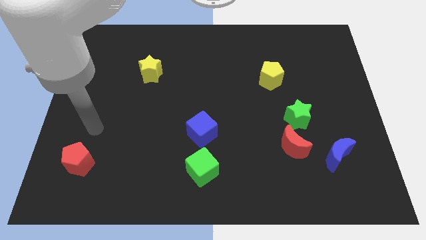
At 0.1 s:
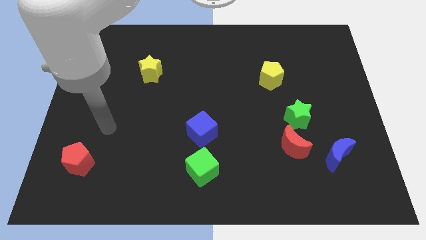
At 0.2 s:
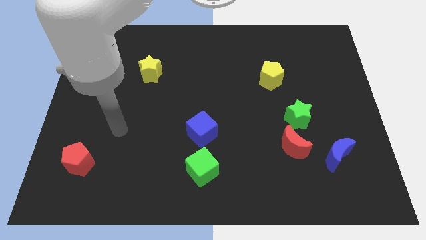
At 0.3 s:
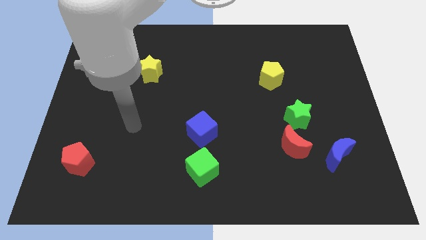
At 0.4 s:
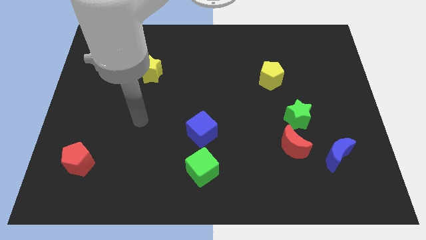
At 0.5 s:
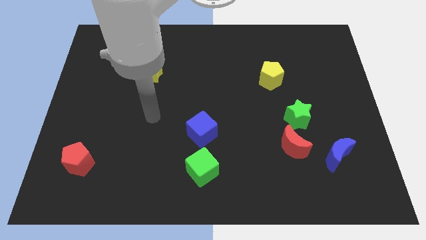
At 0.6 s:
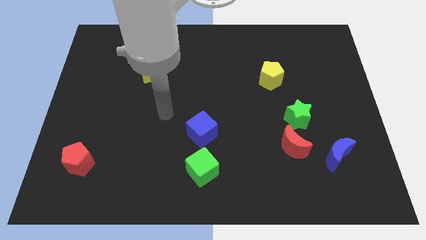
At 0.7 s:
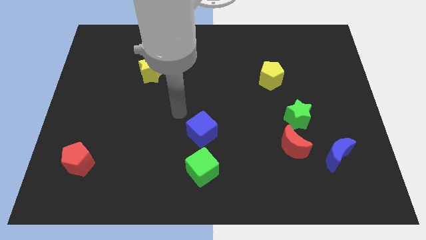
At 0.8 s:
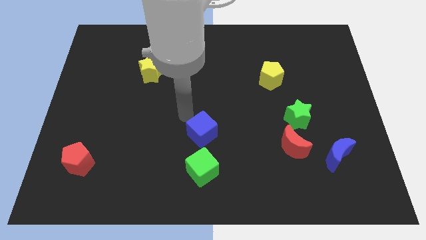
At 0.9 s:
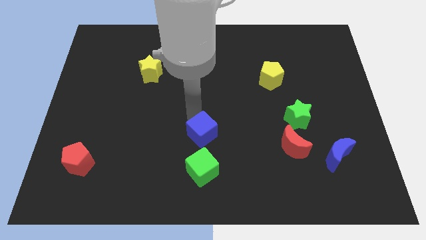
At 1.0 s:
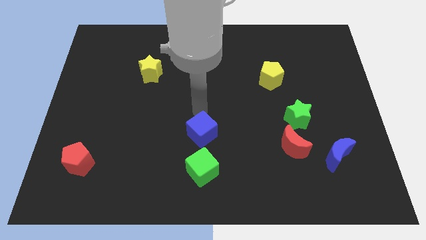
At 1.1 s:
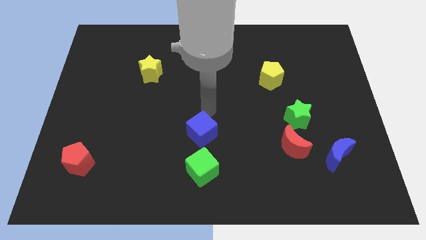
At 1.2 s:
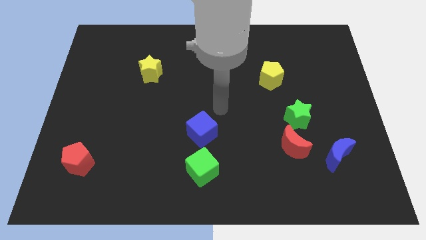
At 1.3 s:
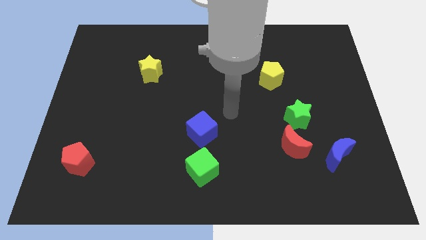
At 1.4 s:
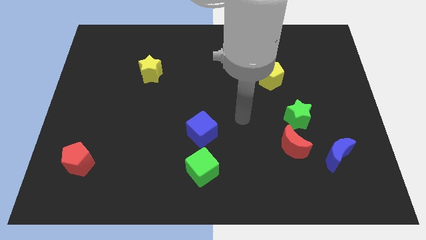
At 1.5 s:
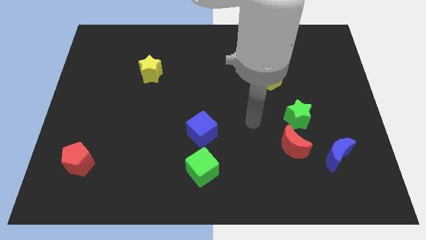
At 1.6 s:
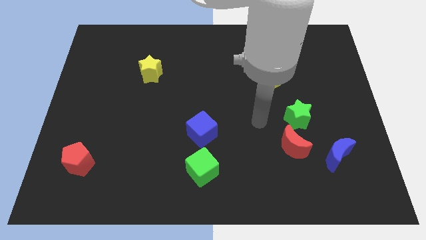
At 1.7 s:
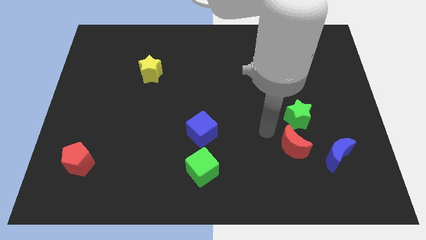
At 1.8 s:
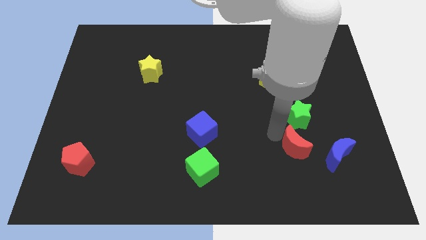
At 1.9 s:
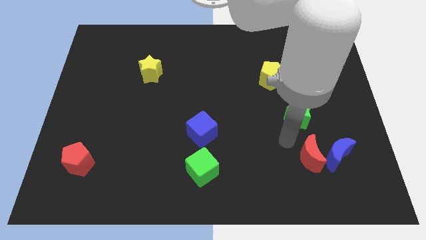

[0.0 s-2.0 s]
pull the green star apart from the red moon

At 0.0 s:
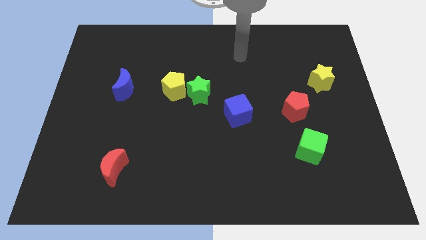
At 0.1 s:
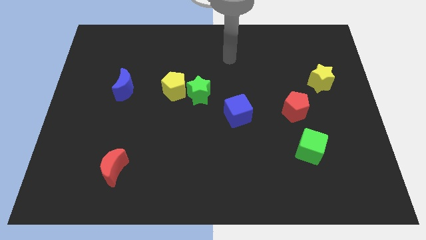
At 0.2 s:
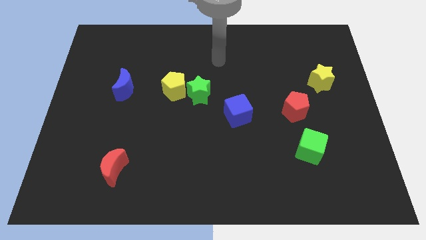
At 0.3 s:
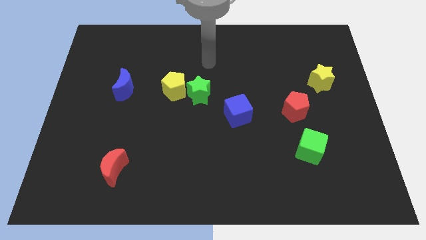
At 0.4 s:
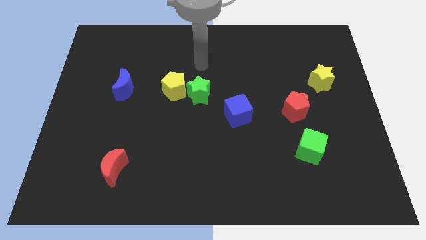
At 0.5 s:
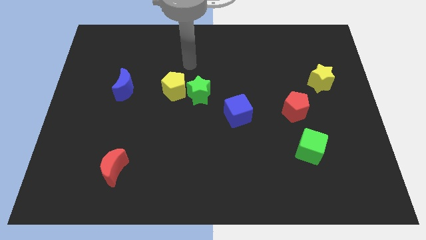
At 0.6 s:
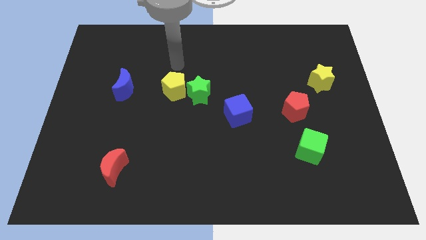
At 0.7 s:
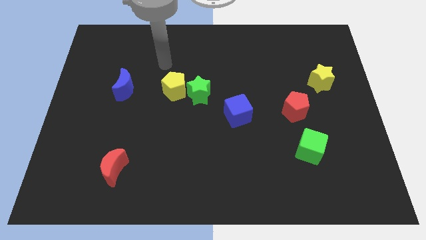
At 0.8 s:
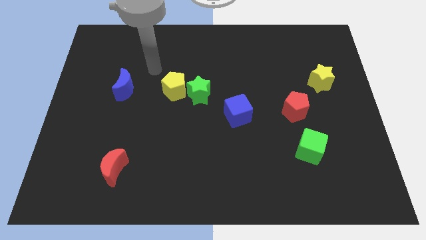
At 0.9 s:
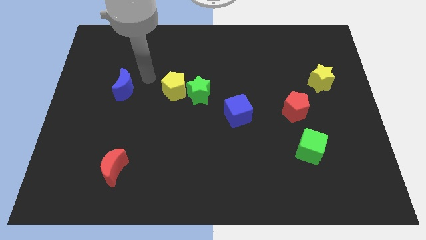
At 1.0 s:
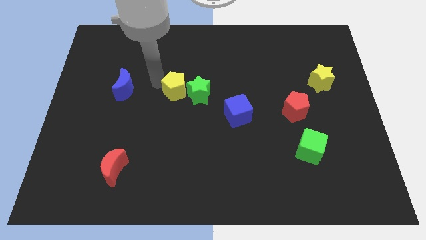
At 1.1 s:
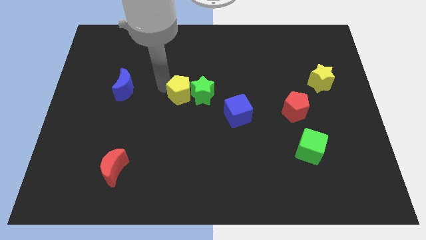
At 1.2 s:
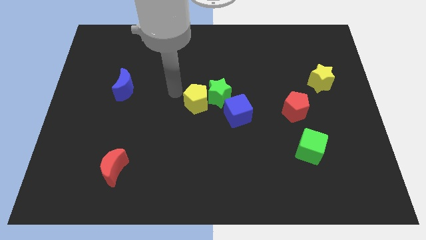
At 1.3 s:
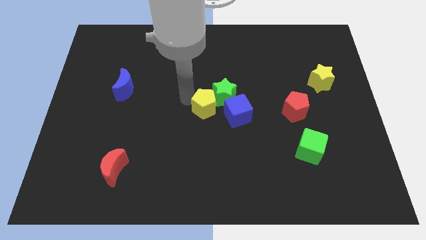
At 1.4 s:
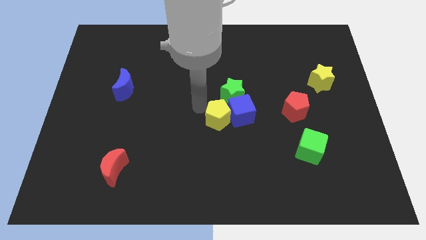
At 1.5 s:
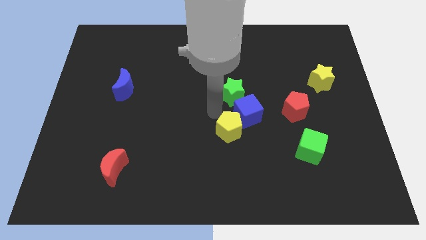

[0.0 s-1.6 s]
separate the green star from the yellow pentagon

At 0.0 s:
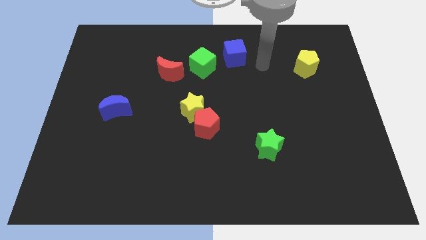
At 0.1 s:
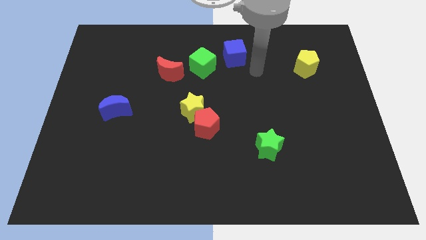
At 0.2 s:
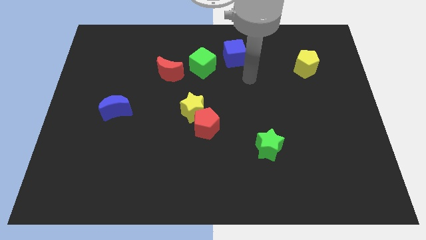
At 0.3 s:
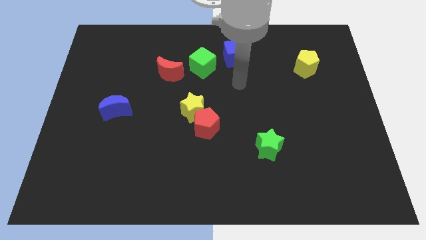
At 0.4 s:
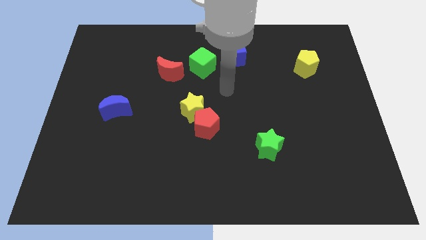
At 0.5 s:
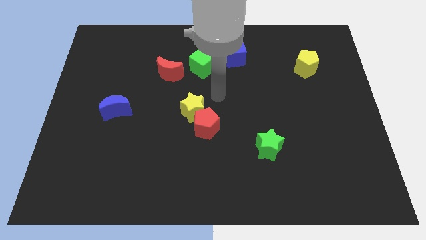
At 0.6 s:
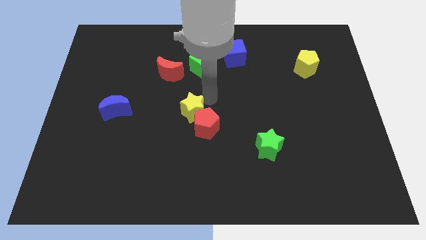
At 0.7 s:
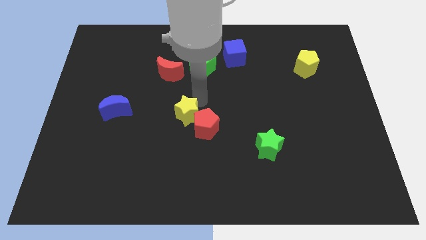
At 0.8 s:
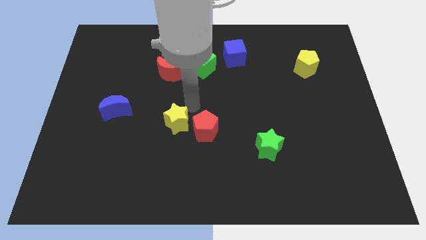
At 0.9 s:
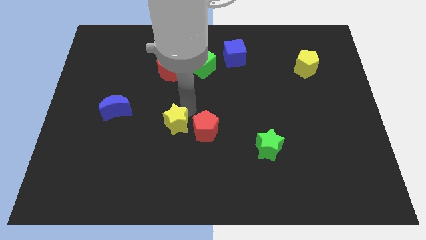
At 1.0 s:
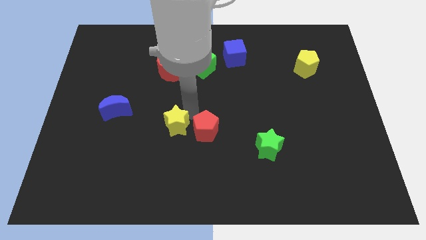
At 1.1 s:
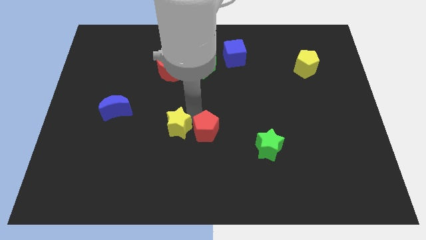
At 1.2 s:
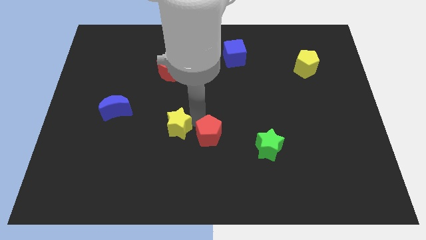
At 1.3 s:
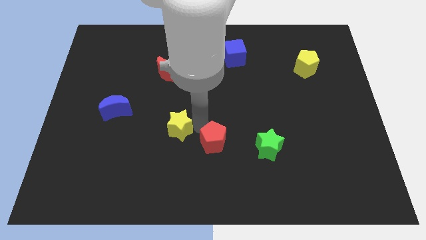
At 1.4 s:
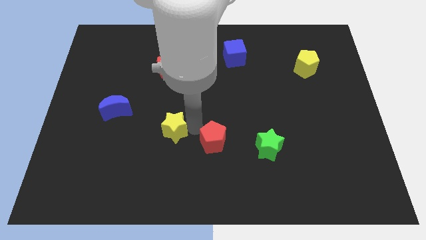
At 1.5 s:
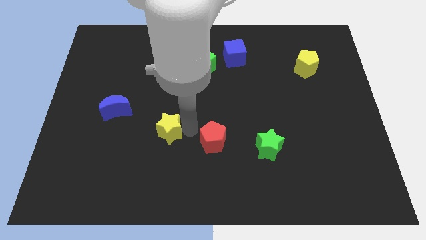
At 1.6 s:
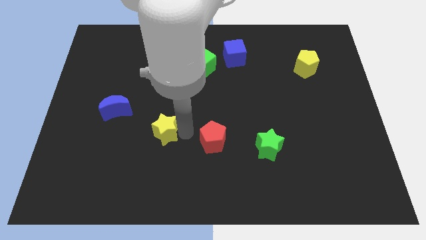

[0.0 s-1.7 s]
pull the red pentagon apart from the yellow star

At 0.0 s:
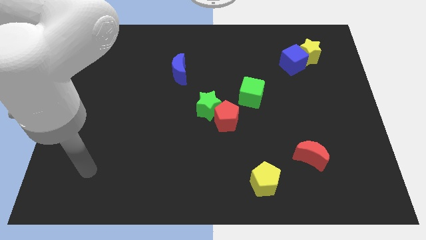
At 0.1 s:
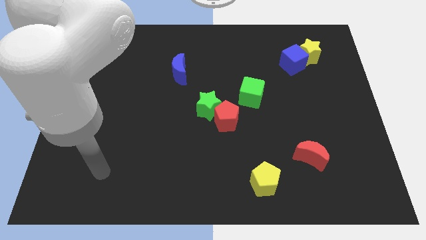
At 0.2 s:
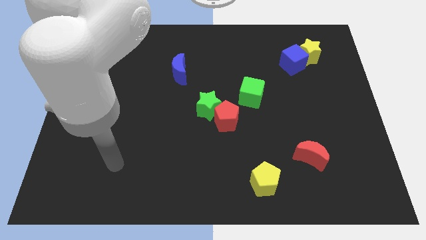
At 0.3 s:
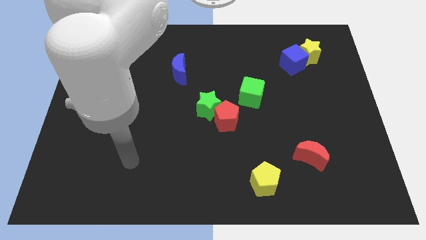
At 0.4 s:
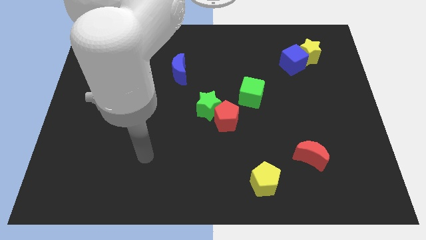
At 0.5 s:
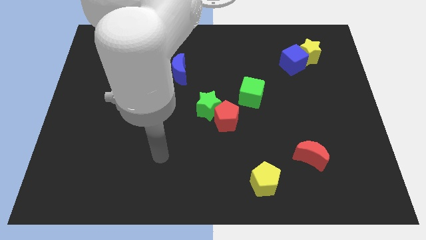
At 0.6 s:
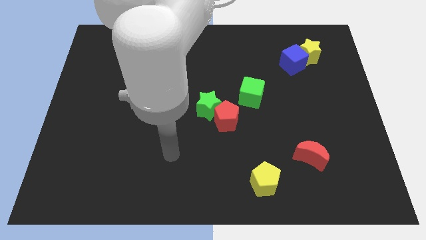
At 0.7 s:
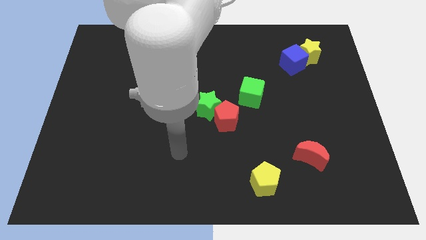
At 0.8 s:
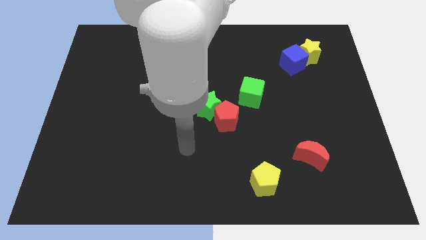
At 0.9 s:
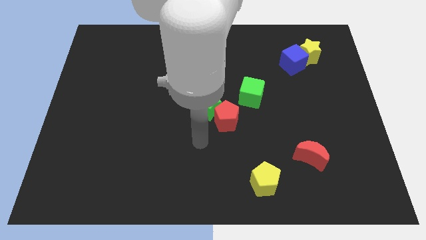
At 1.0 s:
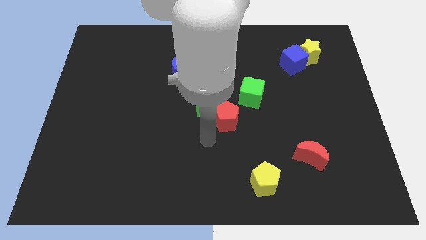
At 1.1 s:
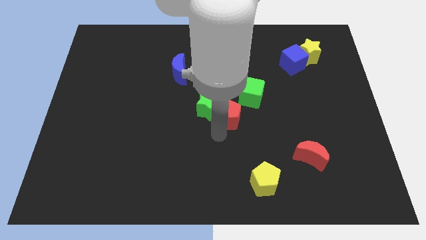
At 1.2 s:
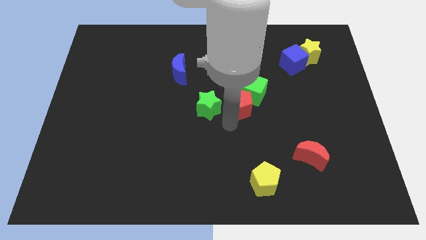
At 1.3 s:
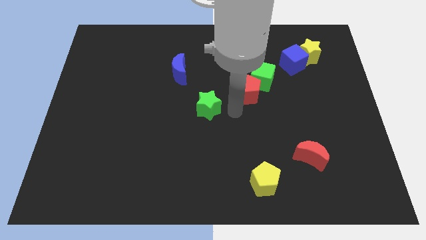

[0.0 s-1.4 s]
separate the green star from the red pentagon

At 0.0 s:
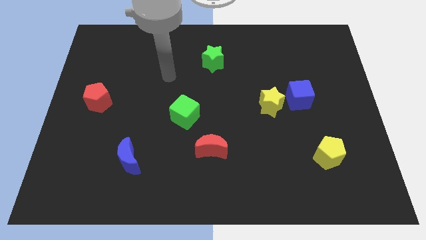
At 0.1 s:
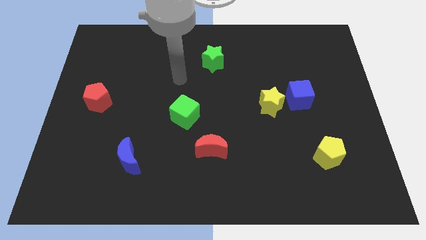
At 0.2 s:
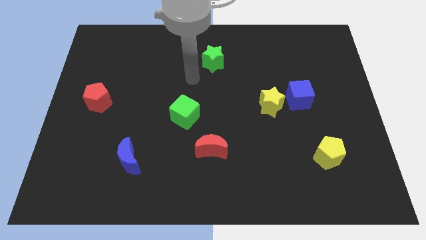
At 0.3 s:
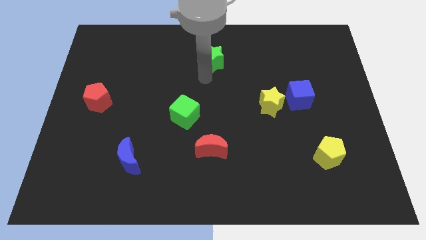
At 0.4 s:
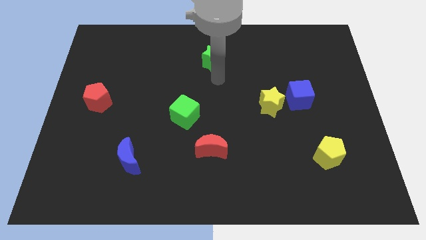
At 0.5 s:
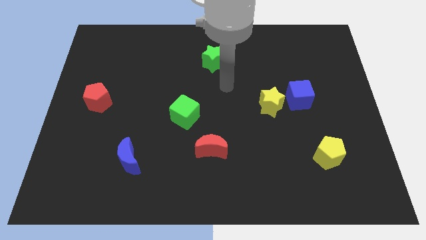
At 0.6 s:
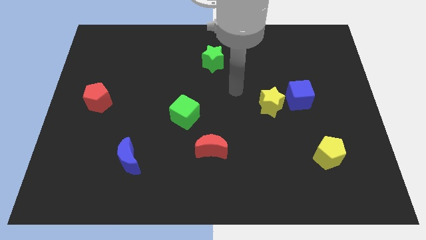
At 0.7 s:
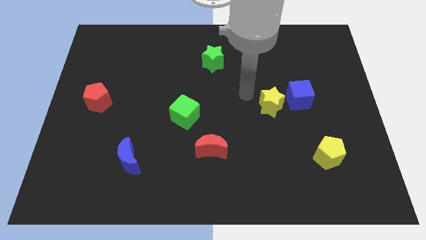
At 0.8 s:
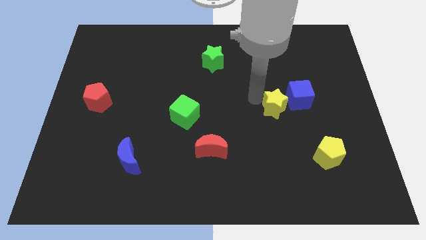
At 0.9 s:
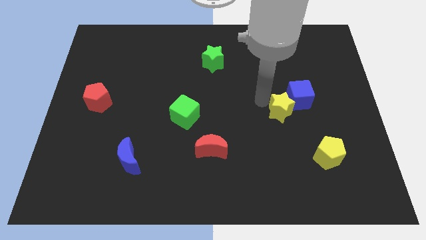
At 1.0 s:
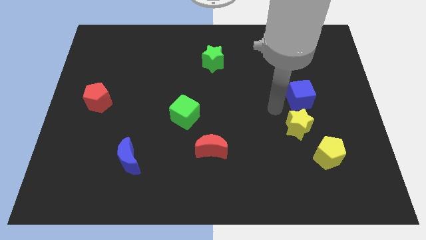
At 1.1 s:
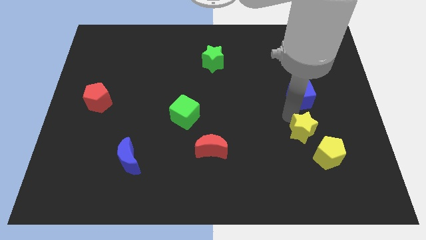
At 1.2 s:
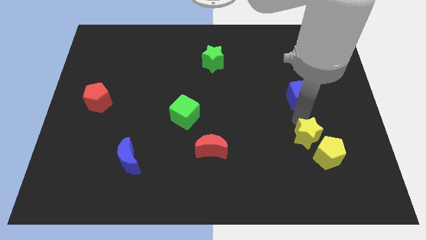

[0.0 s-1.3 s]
pull the blue cube apart from the yellow star

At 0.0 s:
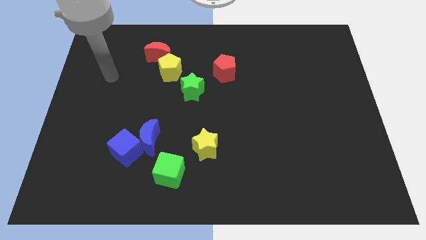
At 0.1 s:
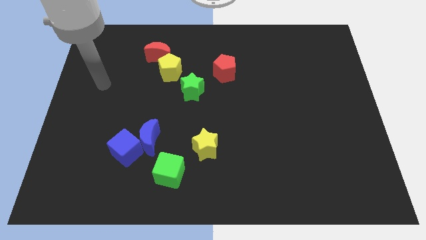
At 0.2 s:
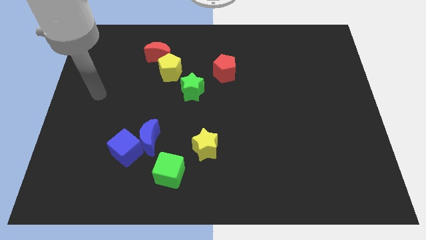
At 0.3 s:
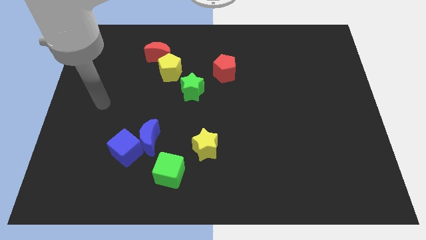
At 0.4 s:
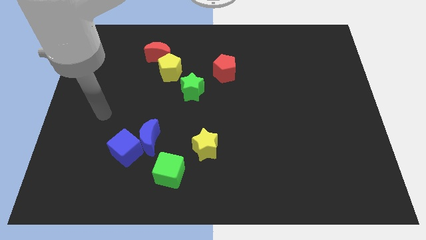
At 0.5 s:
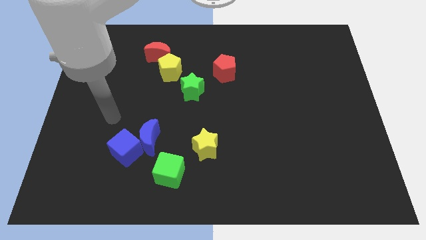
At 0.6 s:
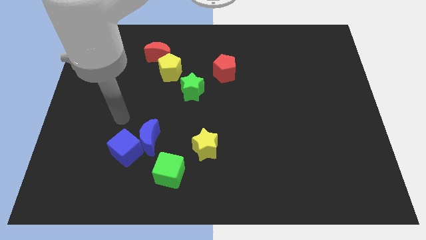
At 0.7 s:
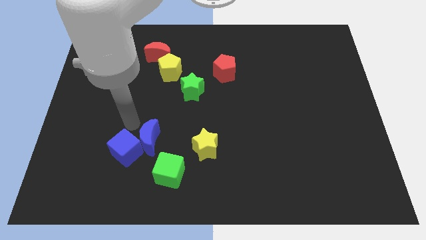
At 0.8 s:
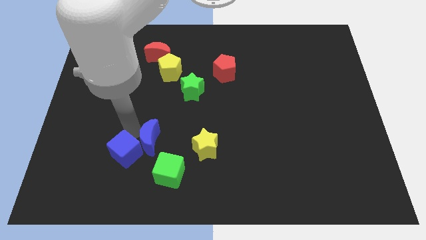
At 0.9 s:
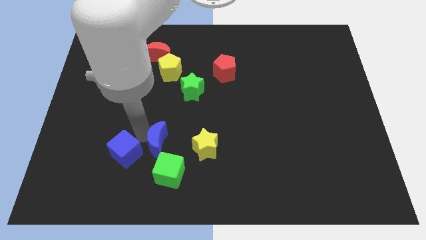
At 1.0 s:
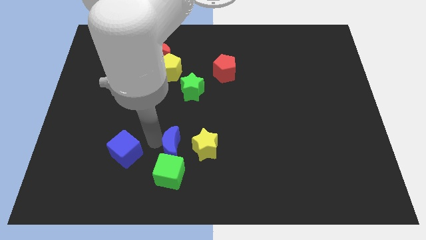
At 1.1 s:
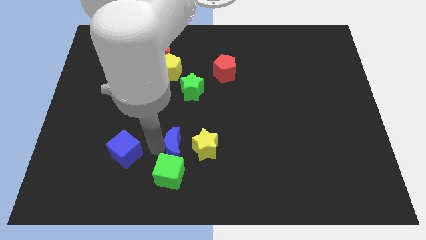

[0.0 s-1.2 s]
move the blue cube away from the blue moon

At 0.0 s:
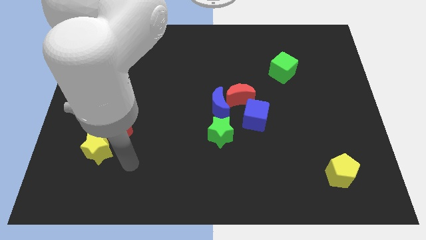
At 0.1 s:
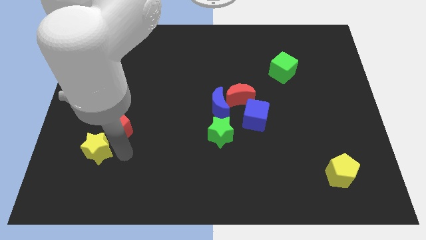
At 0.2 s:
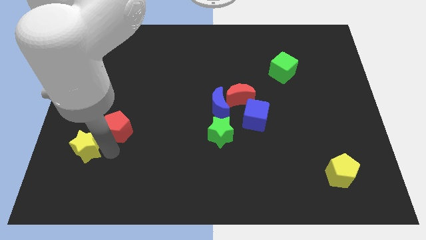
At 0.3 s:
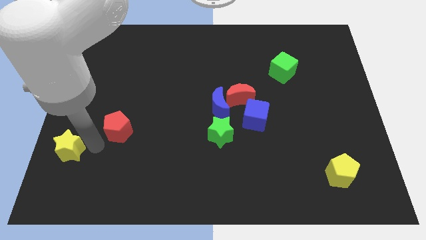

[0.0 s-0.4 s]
move the red pentagon away from the yellow star
